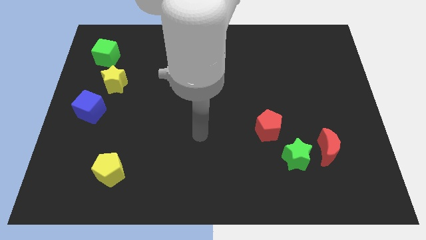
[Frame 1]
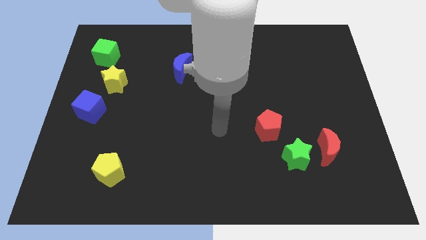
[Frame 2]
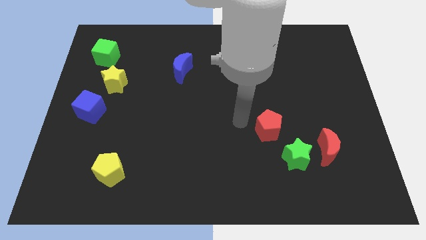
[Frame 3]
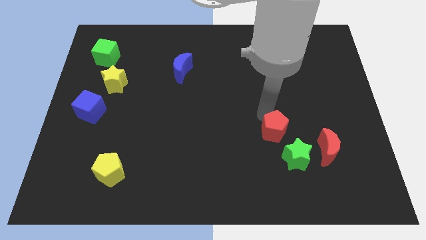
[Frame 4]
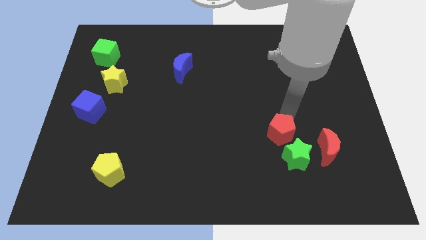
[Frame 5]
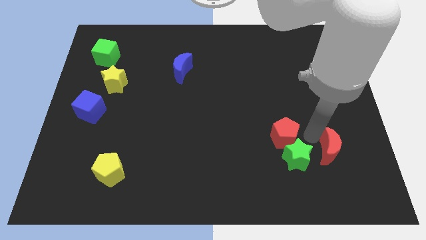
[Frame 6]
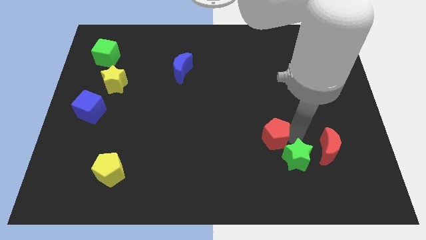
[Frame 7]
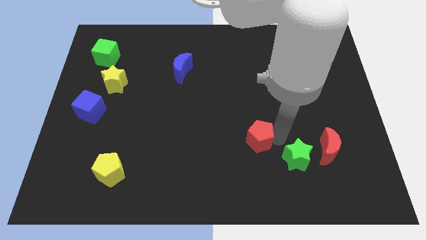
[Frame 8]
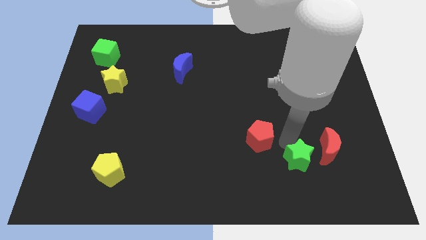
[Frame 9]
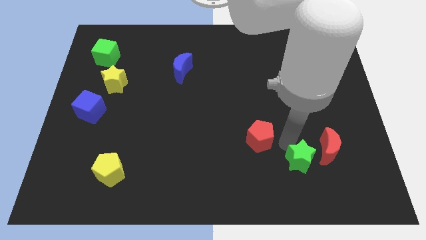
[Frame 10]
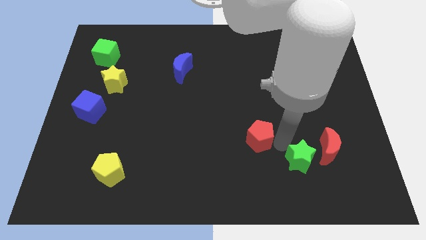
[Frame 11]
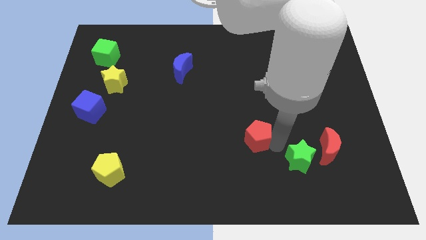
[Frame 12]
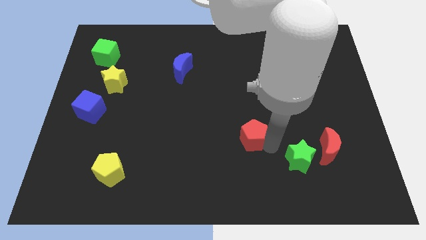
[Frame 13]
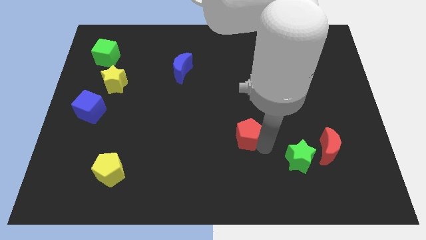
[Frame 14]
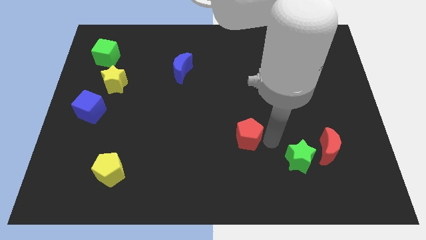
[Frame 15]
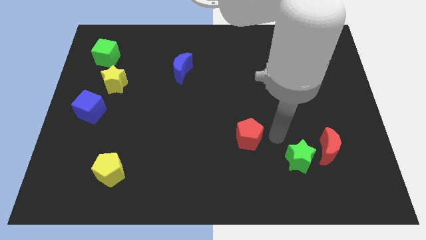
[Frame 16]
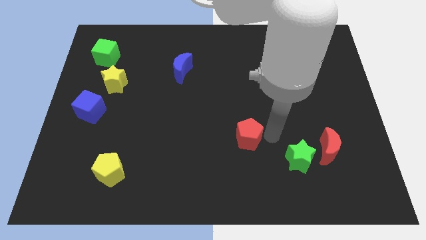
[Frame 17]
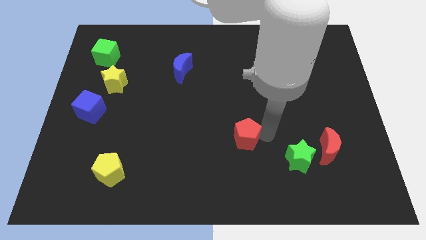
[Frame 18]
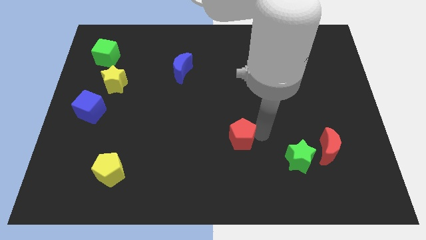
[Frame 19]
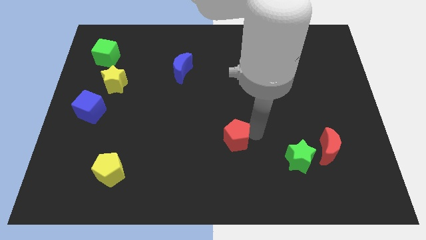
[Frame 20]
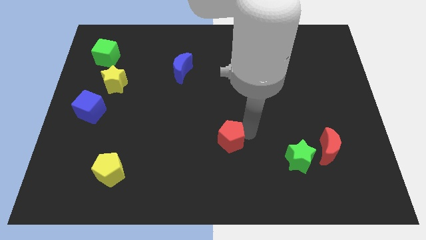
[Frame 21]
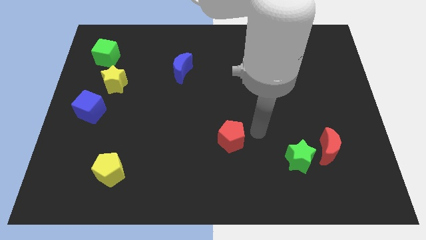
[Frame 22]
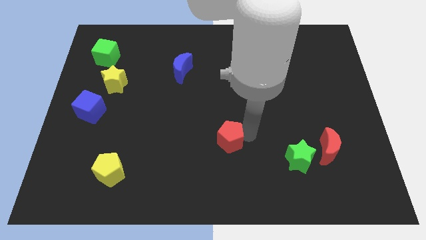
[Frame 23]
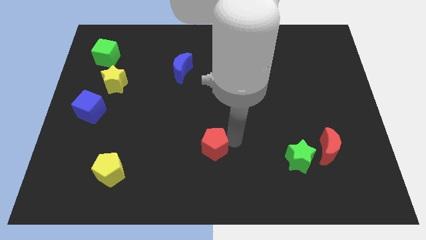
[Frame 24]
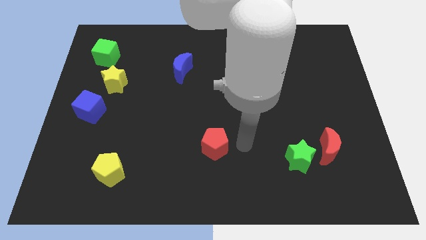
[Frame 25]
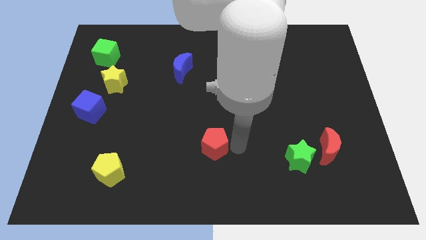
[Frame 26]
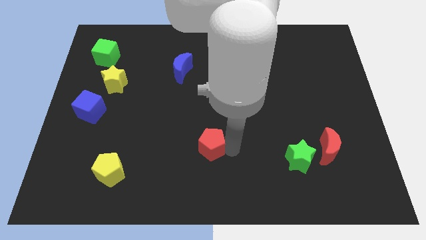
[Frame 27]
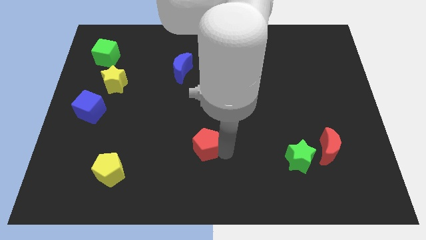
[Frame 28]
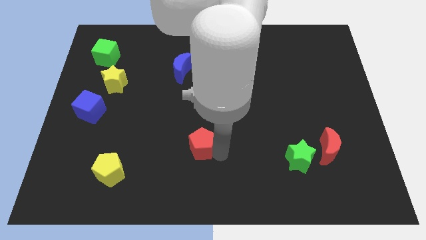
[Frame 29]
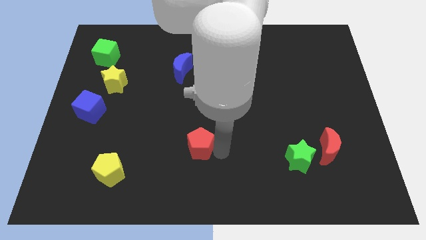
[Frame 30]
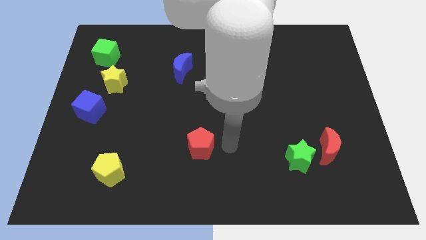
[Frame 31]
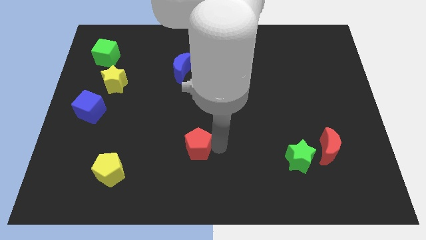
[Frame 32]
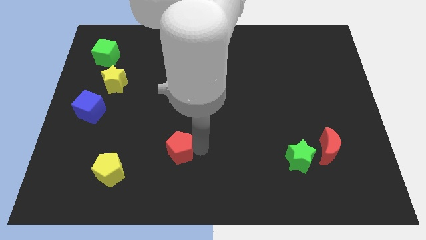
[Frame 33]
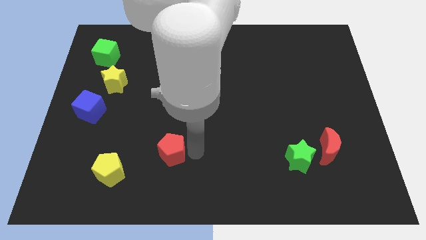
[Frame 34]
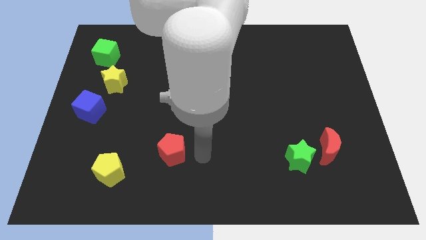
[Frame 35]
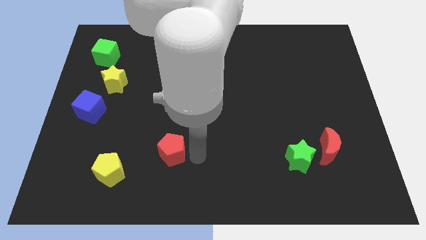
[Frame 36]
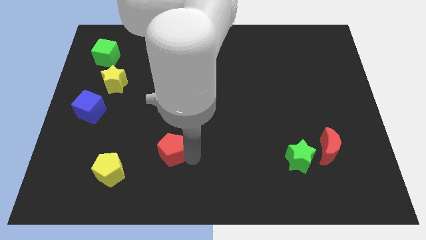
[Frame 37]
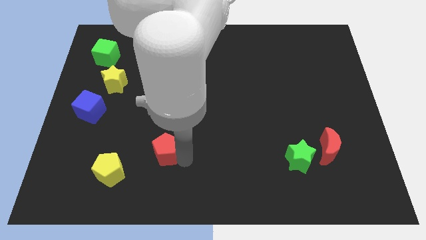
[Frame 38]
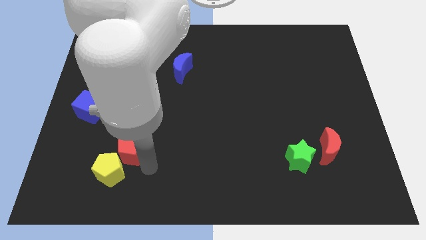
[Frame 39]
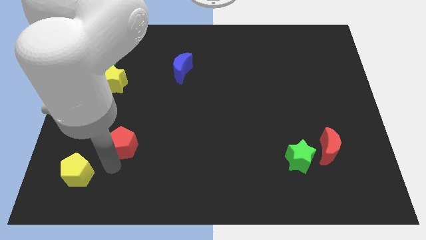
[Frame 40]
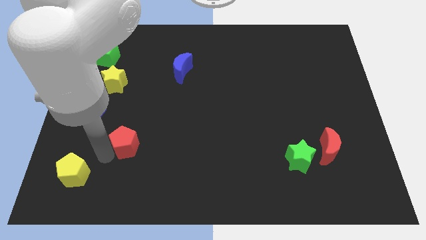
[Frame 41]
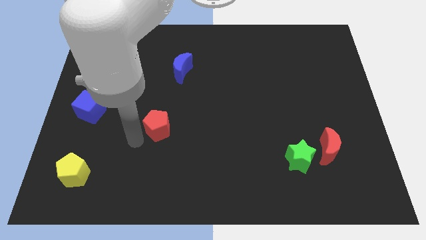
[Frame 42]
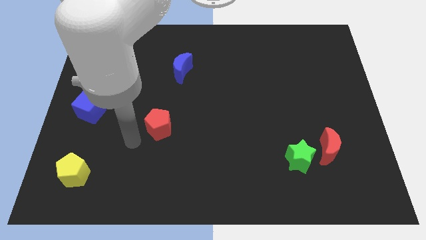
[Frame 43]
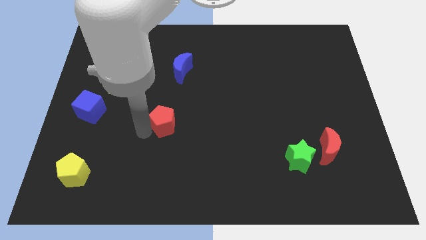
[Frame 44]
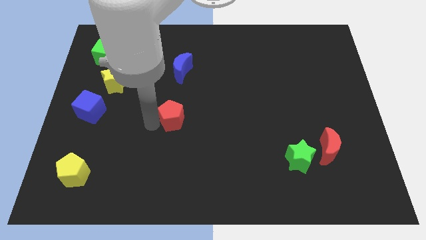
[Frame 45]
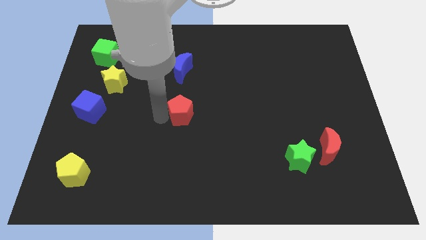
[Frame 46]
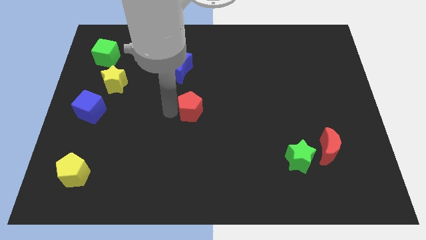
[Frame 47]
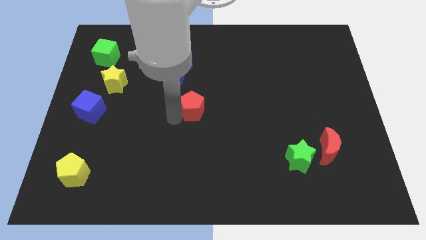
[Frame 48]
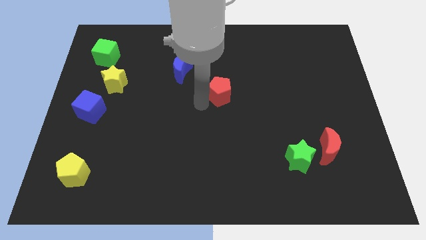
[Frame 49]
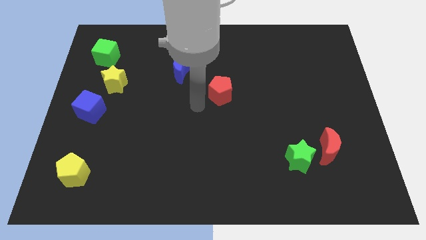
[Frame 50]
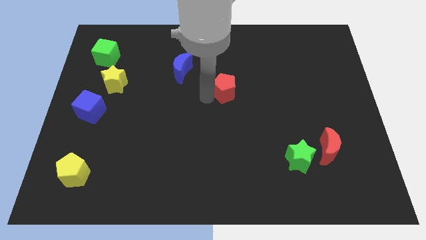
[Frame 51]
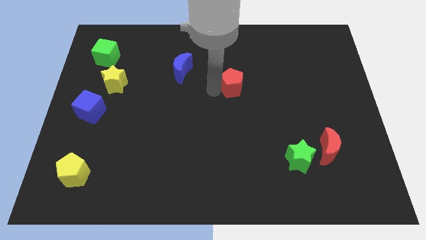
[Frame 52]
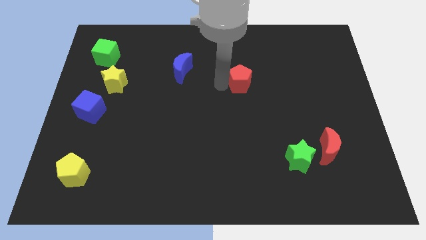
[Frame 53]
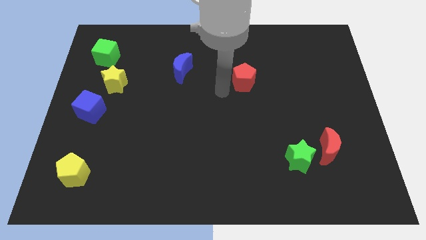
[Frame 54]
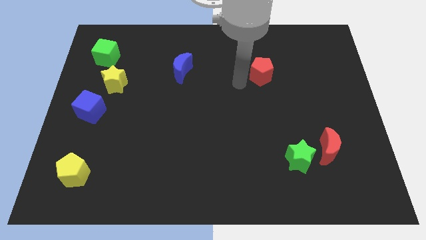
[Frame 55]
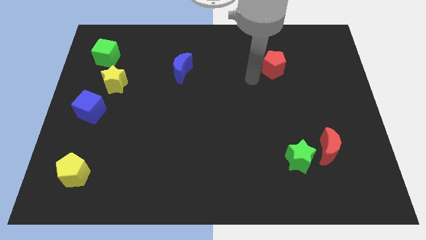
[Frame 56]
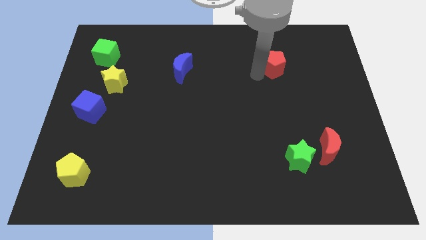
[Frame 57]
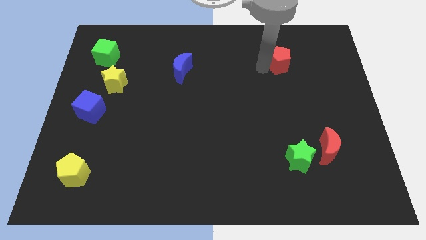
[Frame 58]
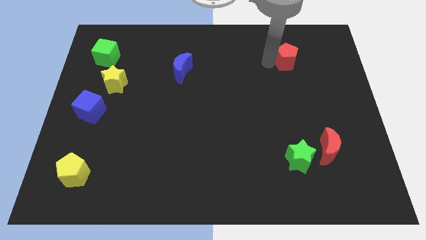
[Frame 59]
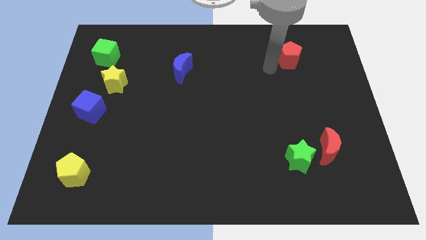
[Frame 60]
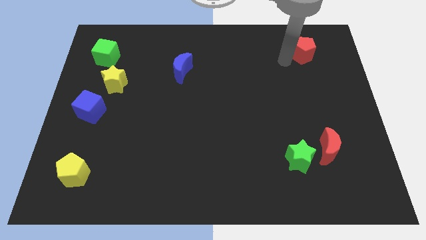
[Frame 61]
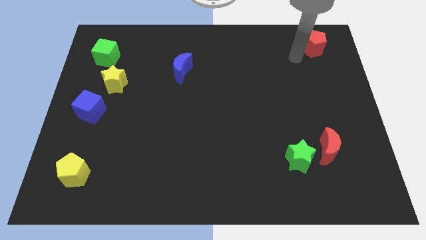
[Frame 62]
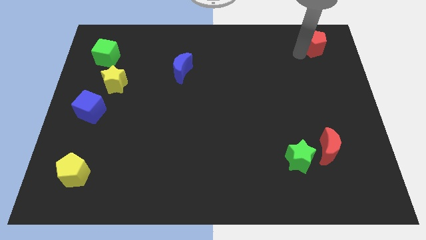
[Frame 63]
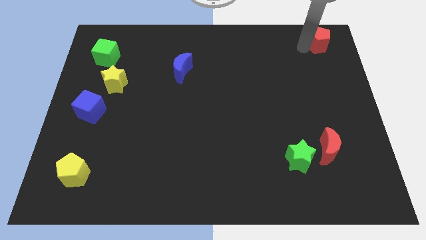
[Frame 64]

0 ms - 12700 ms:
move the red pentagon to the top right of the board

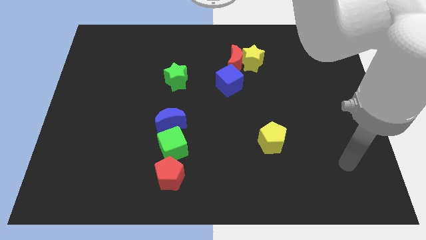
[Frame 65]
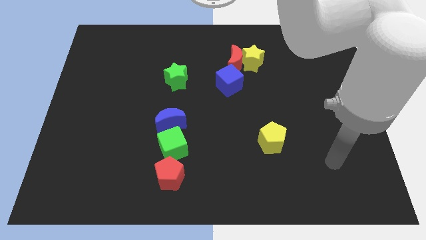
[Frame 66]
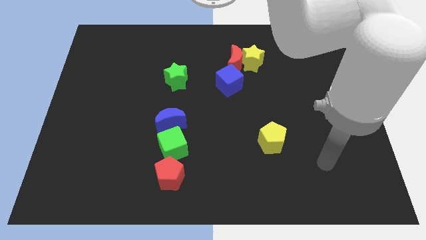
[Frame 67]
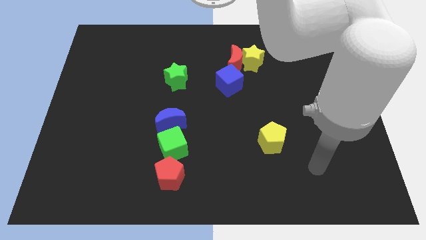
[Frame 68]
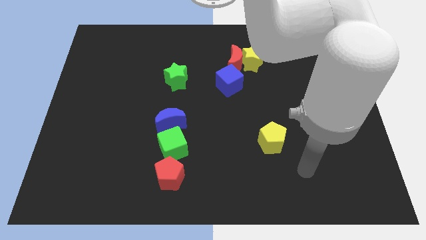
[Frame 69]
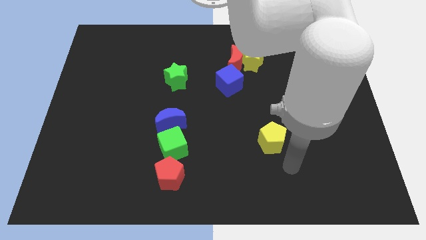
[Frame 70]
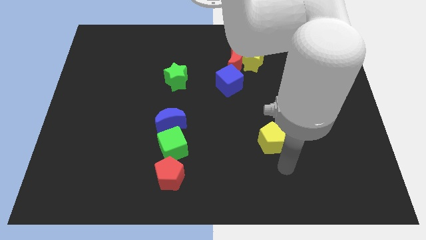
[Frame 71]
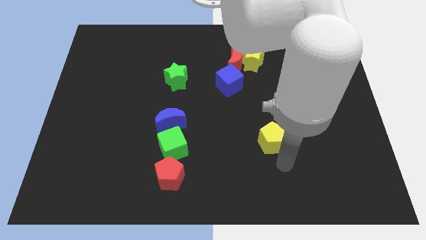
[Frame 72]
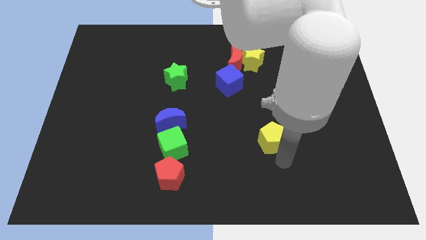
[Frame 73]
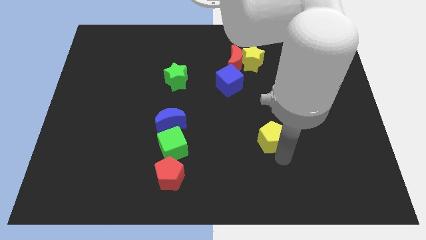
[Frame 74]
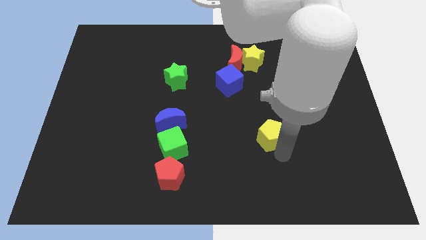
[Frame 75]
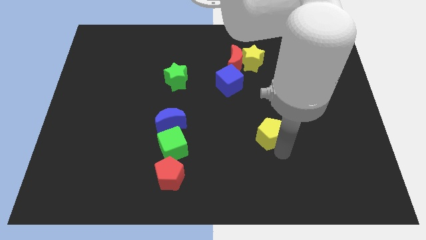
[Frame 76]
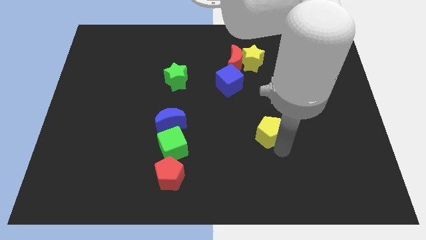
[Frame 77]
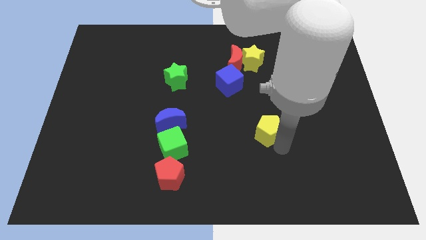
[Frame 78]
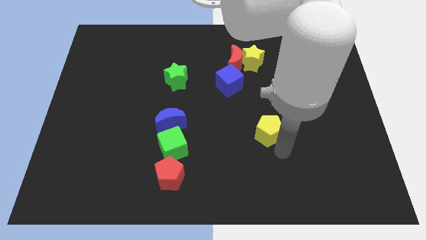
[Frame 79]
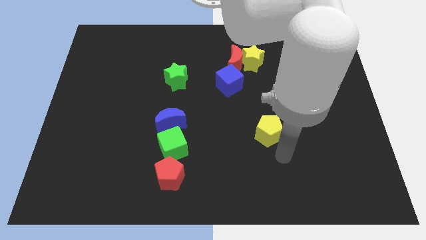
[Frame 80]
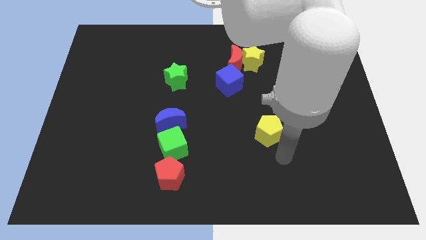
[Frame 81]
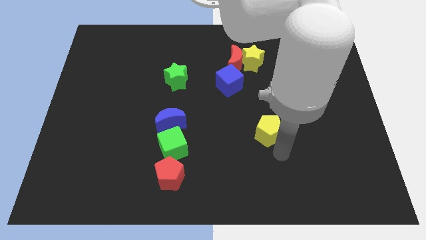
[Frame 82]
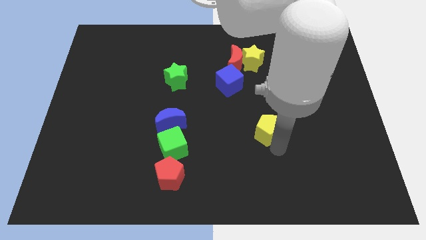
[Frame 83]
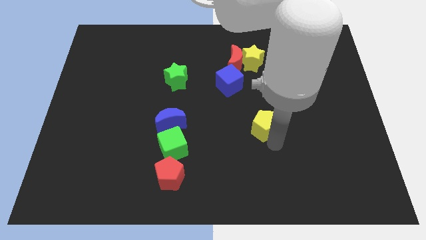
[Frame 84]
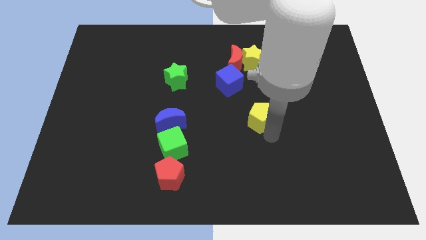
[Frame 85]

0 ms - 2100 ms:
slide the yellow pentagon to the center of the board
